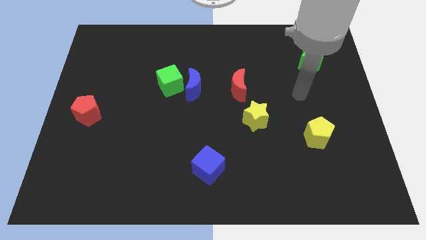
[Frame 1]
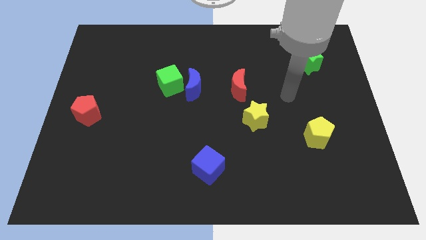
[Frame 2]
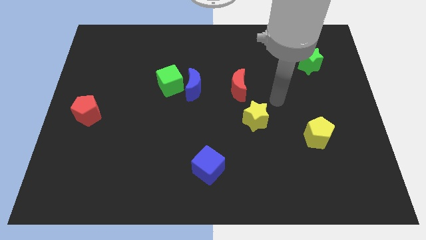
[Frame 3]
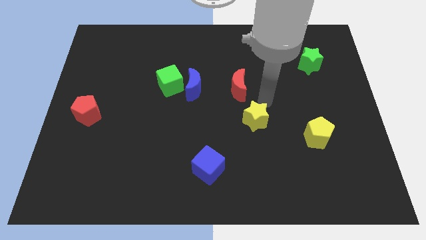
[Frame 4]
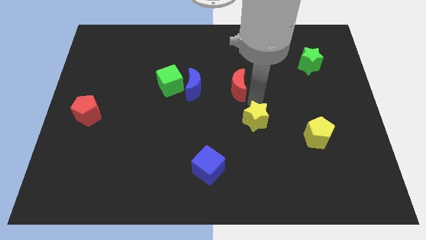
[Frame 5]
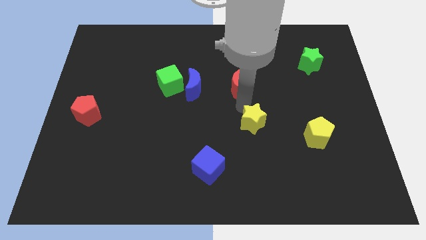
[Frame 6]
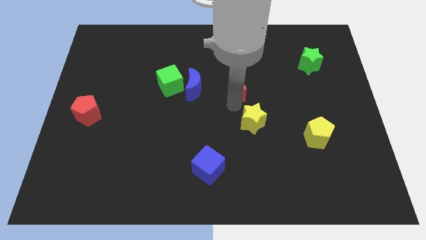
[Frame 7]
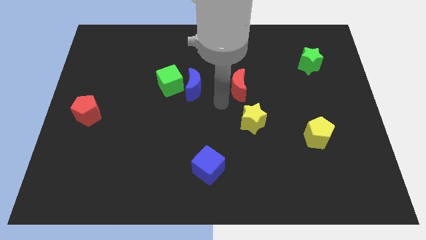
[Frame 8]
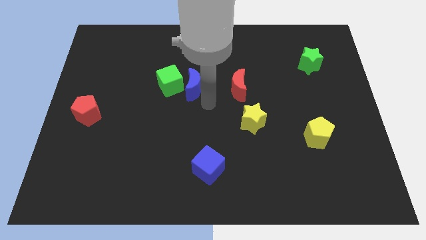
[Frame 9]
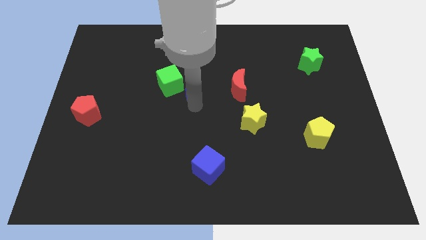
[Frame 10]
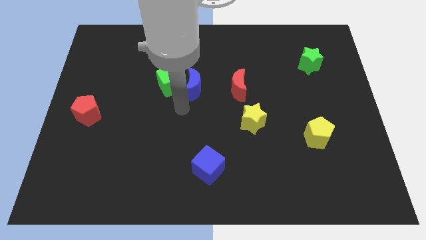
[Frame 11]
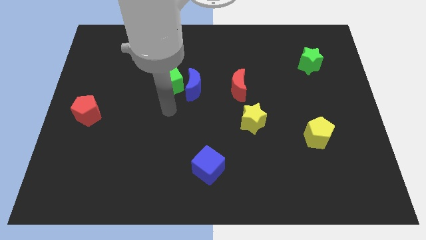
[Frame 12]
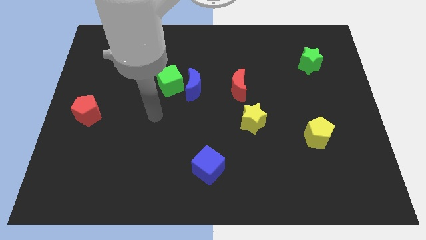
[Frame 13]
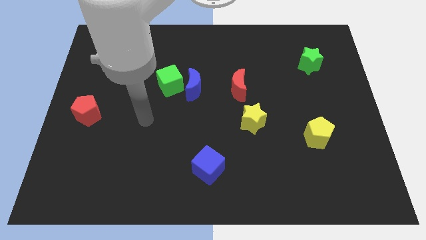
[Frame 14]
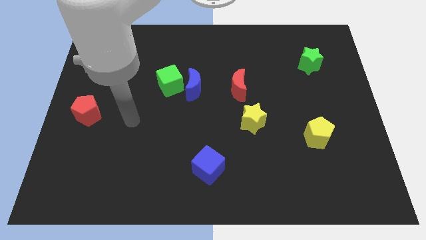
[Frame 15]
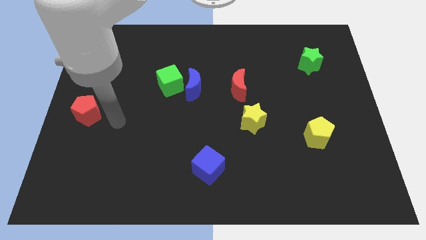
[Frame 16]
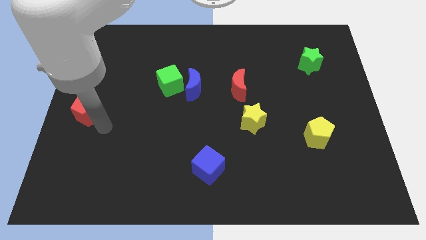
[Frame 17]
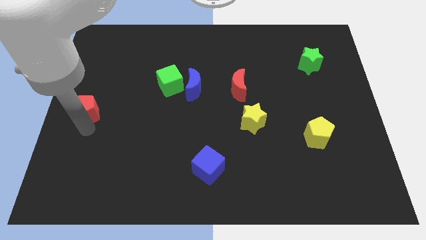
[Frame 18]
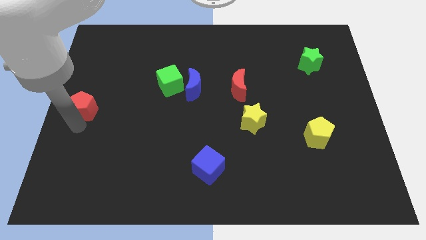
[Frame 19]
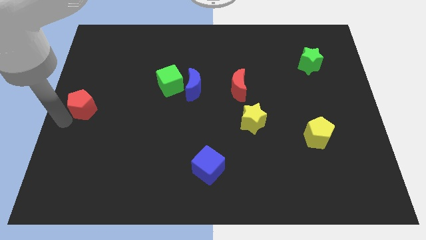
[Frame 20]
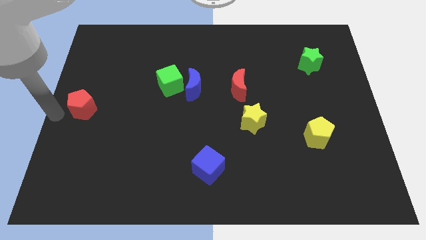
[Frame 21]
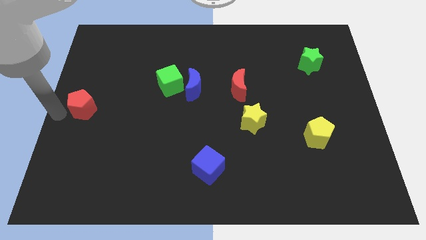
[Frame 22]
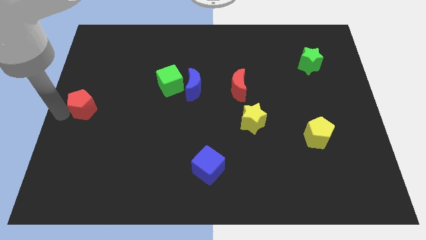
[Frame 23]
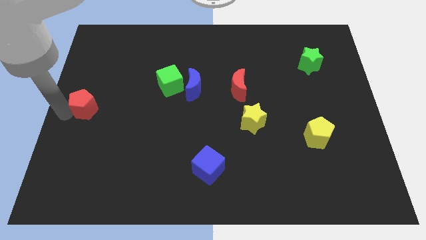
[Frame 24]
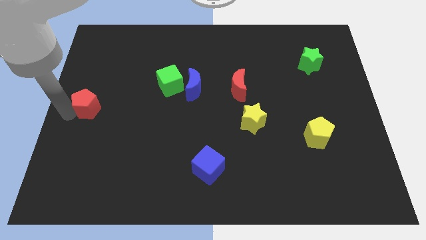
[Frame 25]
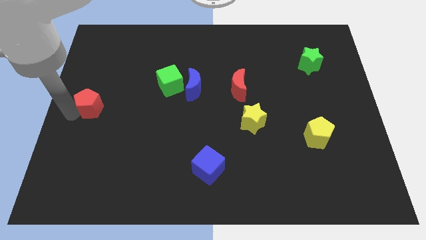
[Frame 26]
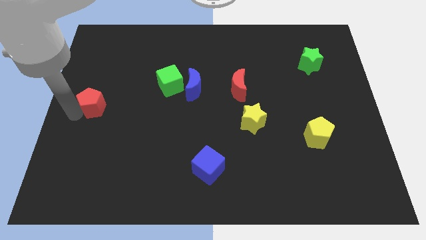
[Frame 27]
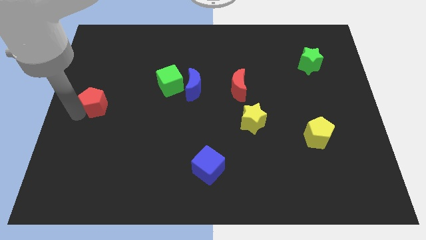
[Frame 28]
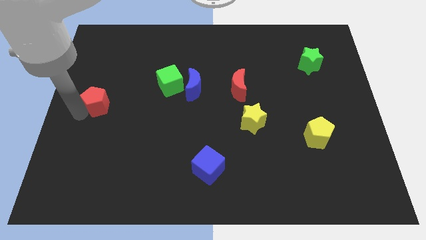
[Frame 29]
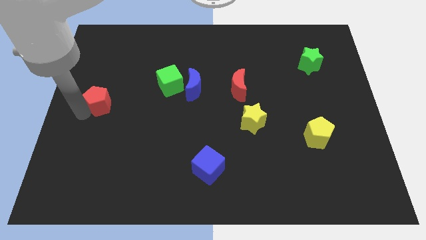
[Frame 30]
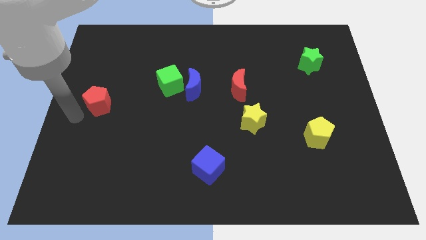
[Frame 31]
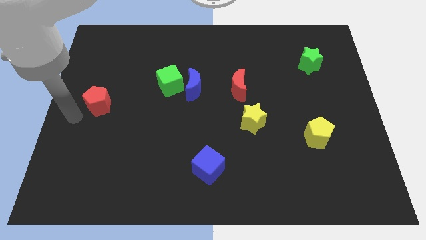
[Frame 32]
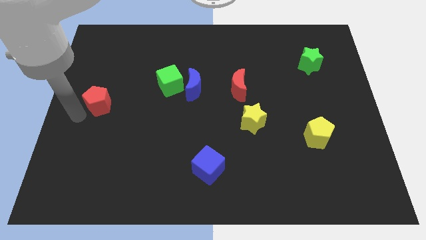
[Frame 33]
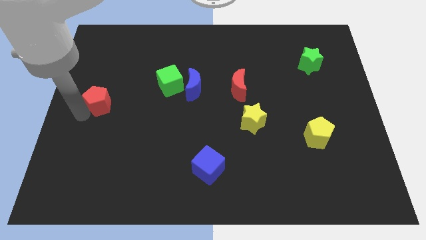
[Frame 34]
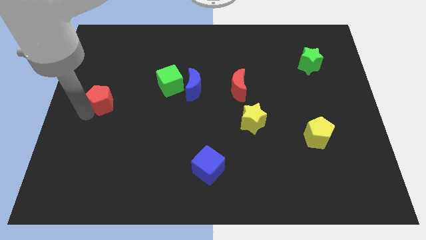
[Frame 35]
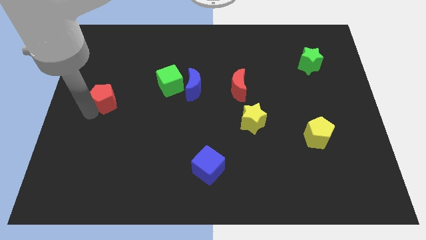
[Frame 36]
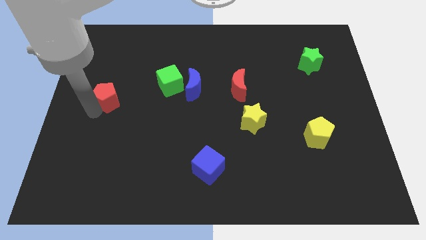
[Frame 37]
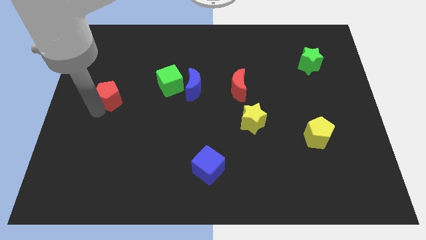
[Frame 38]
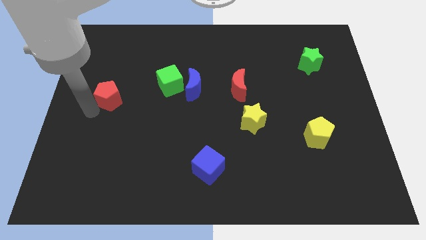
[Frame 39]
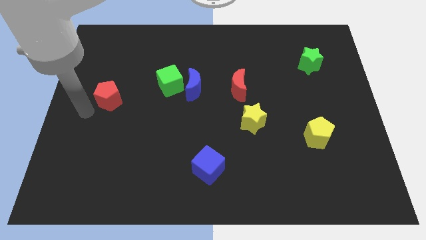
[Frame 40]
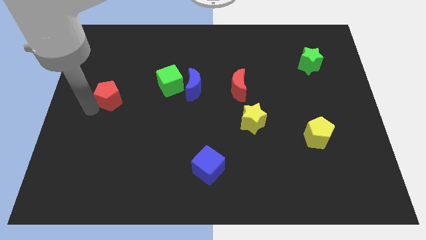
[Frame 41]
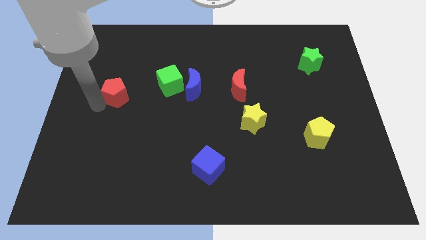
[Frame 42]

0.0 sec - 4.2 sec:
slightly push the red pentagon up and to the right

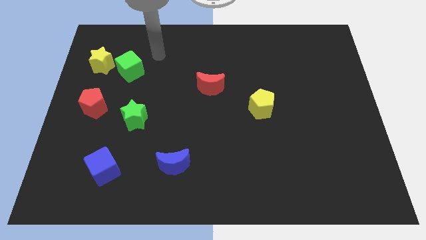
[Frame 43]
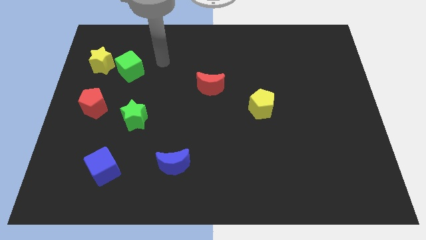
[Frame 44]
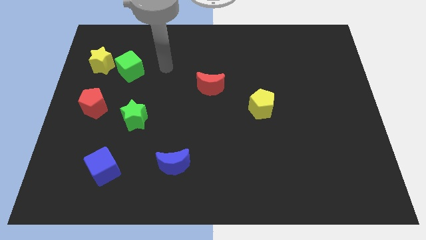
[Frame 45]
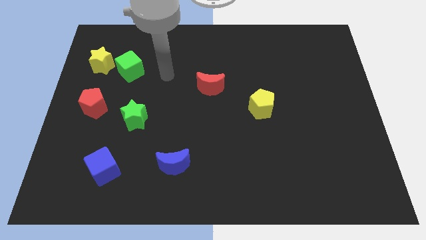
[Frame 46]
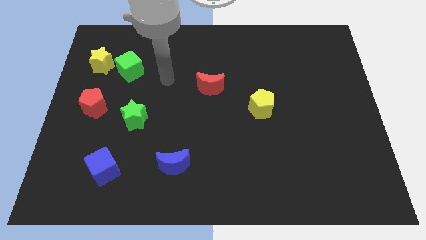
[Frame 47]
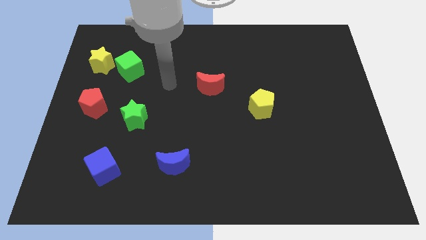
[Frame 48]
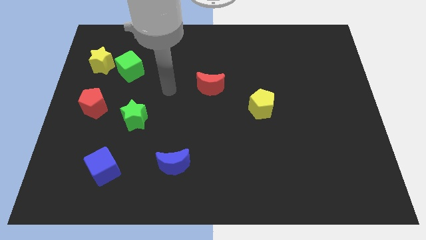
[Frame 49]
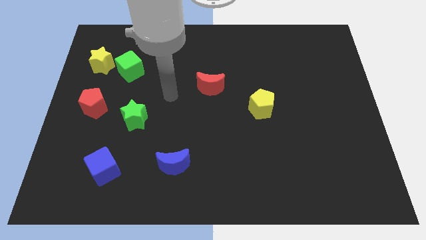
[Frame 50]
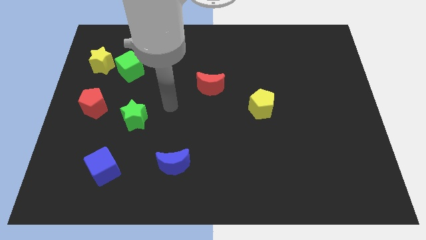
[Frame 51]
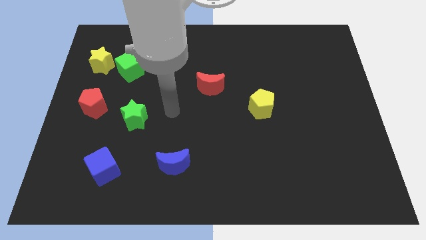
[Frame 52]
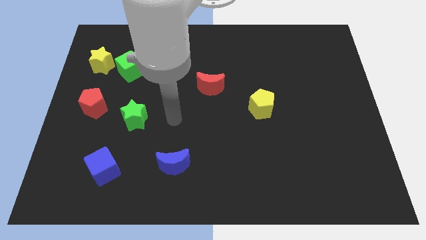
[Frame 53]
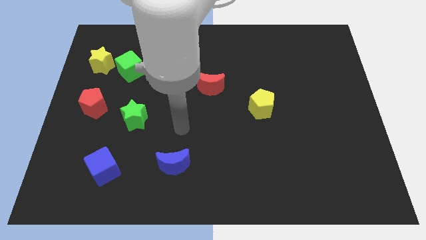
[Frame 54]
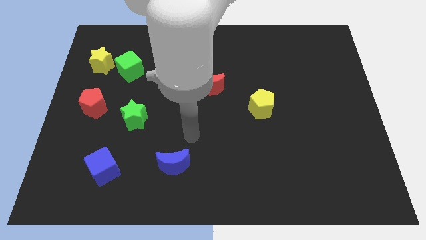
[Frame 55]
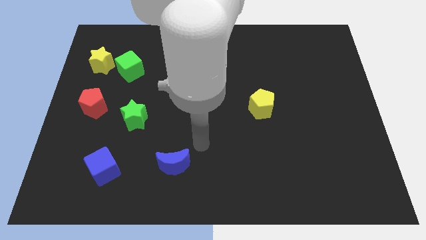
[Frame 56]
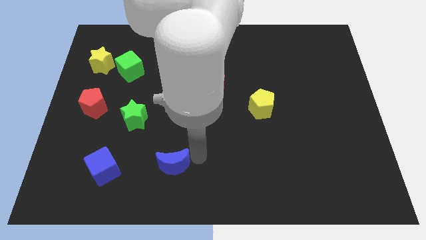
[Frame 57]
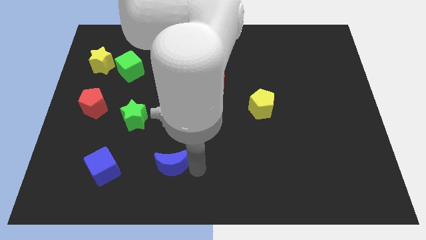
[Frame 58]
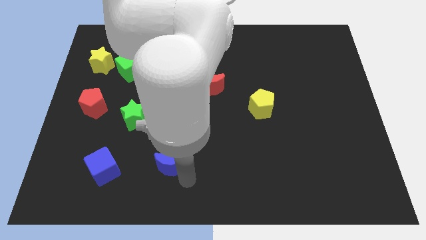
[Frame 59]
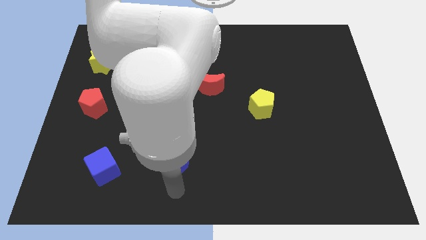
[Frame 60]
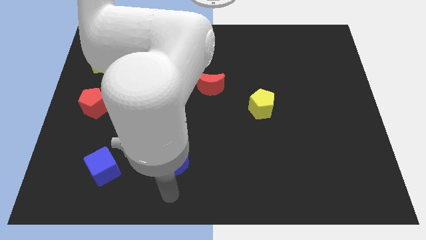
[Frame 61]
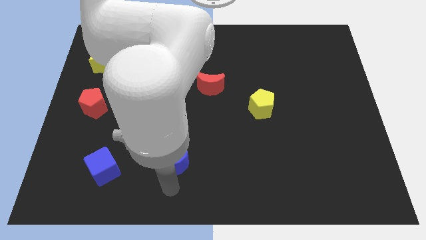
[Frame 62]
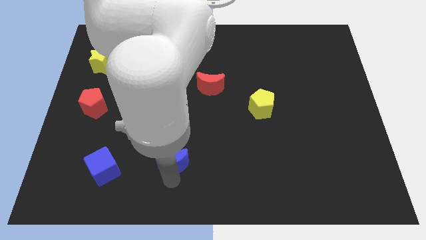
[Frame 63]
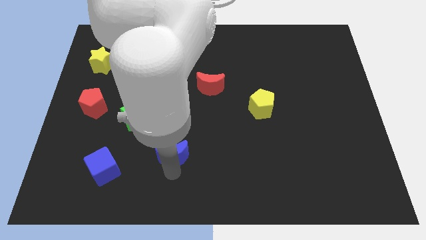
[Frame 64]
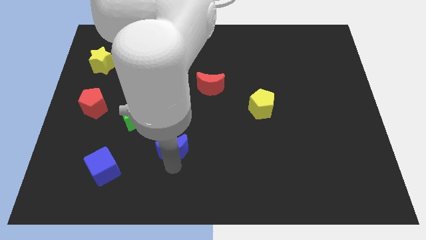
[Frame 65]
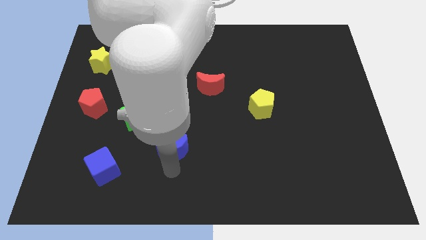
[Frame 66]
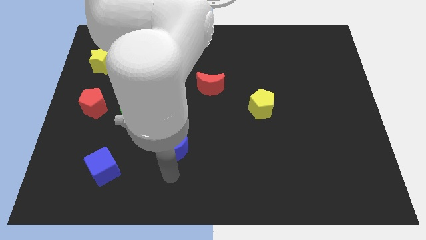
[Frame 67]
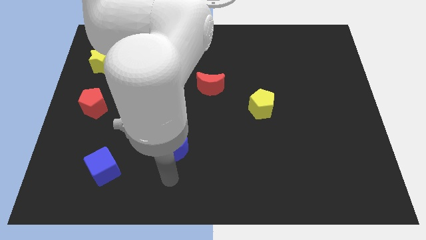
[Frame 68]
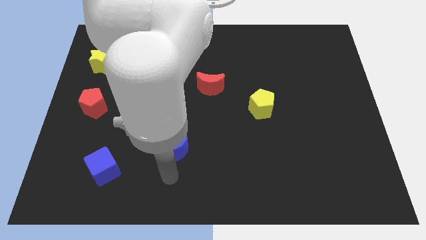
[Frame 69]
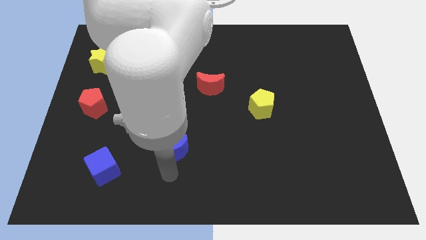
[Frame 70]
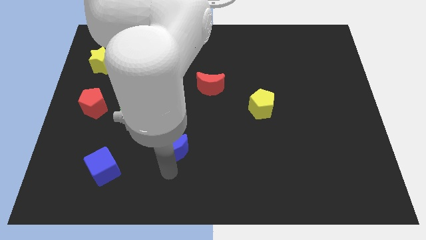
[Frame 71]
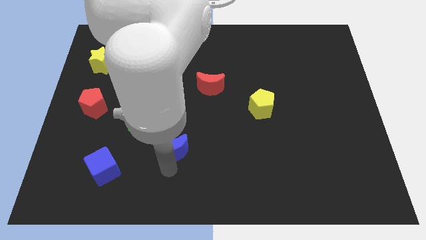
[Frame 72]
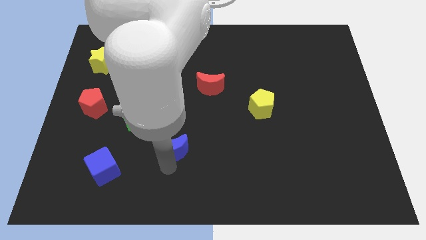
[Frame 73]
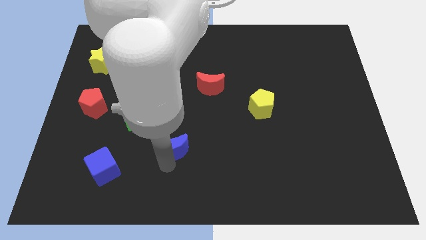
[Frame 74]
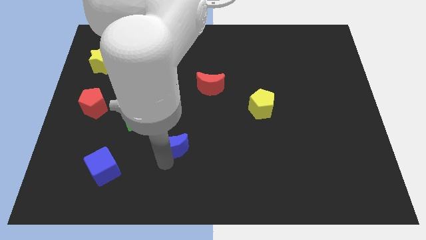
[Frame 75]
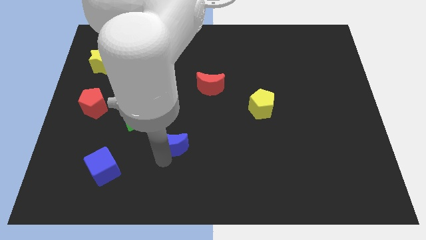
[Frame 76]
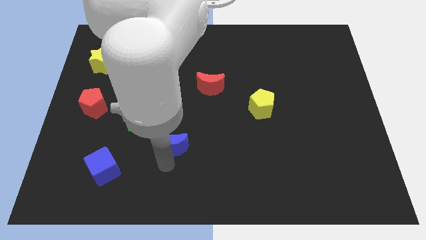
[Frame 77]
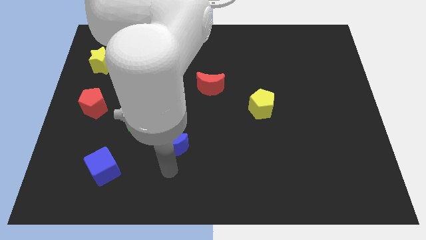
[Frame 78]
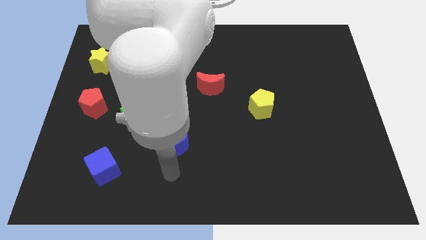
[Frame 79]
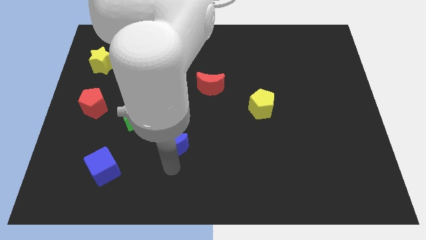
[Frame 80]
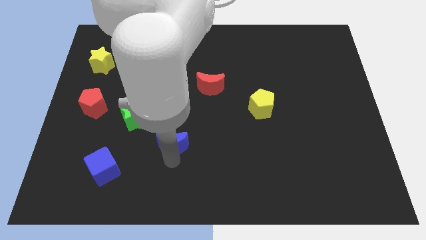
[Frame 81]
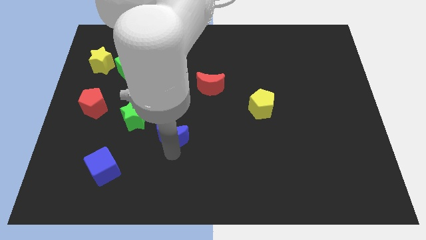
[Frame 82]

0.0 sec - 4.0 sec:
slide the blue moon upwards a little bit
